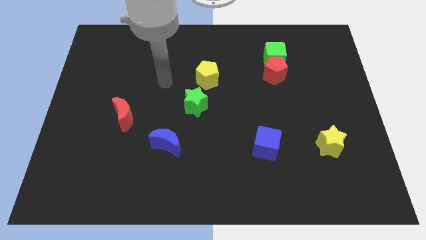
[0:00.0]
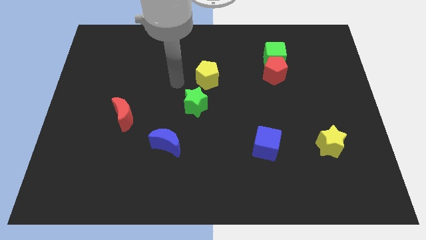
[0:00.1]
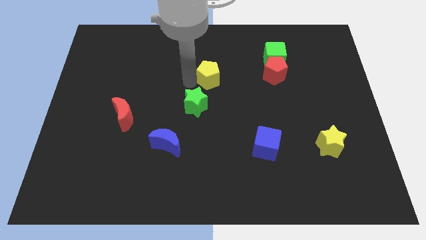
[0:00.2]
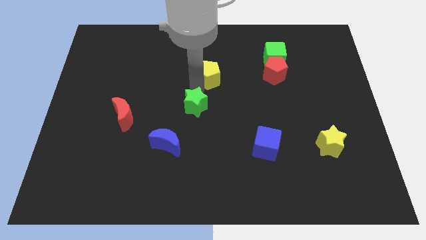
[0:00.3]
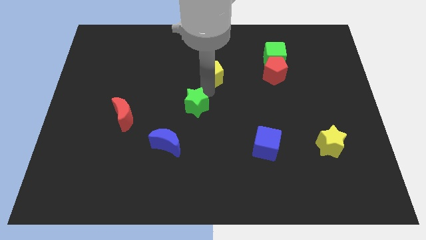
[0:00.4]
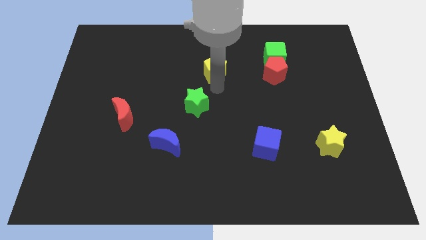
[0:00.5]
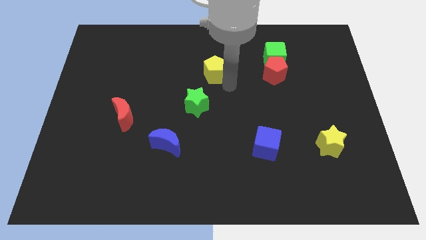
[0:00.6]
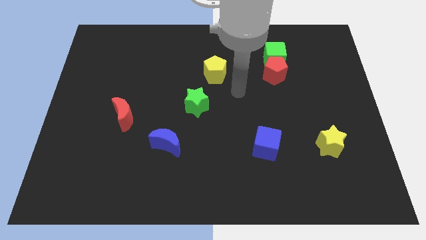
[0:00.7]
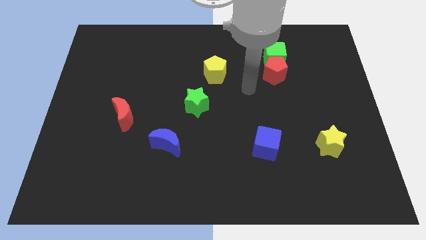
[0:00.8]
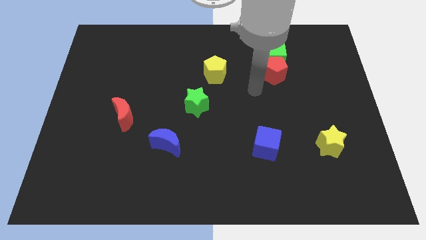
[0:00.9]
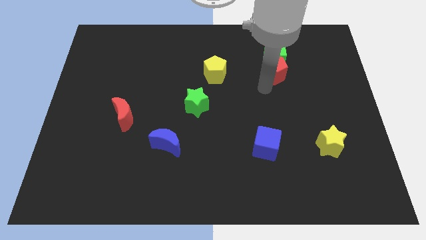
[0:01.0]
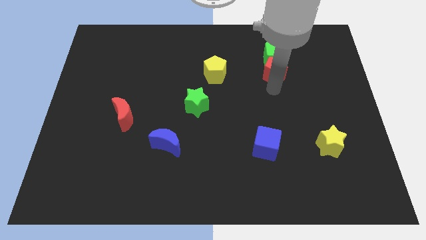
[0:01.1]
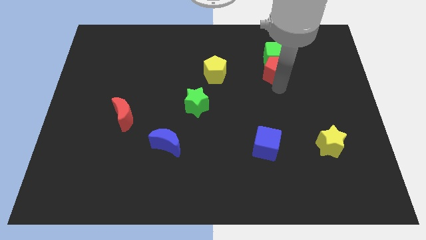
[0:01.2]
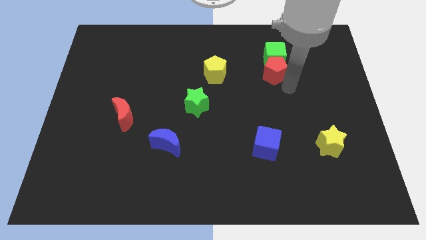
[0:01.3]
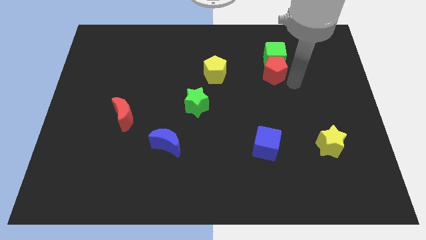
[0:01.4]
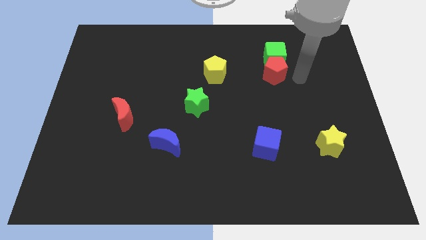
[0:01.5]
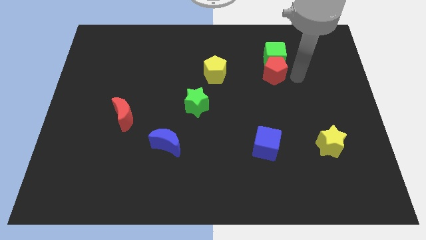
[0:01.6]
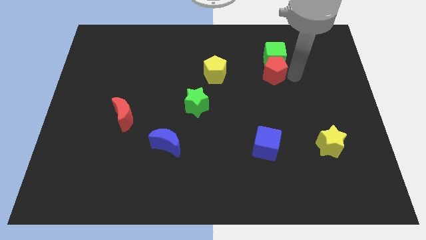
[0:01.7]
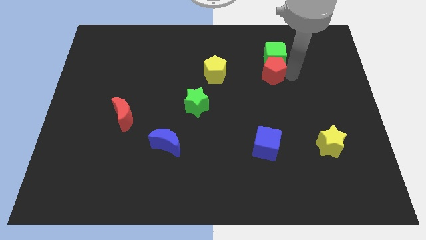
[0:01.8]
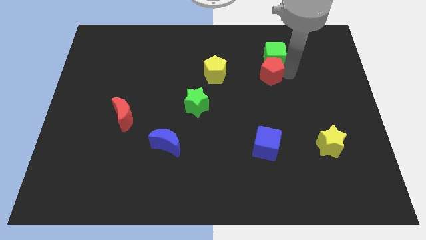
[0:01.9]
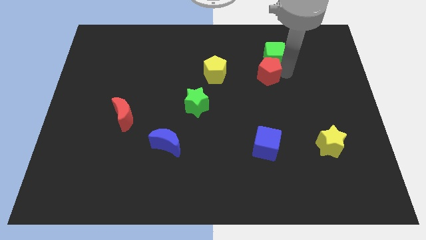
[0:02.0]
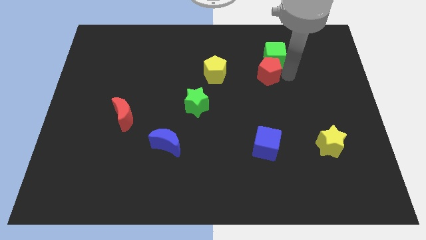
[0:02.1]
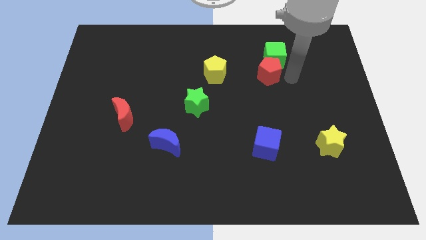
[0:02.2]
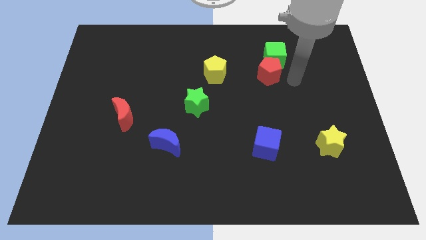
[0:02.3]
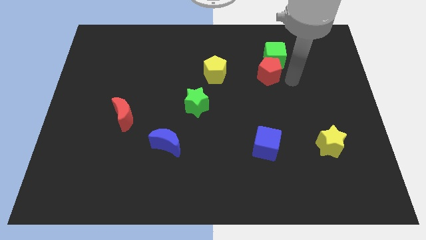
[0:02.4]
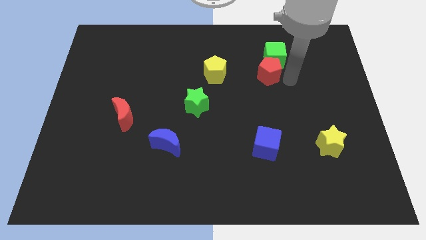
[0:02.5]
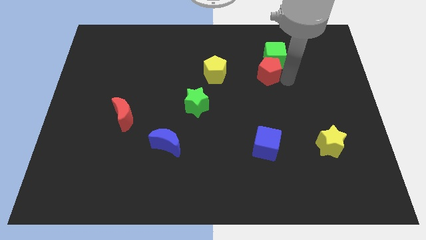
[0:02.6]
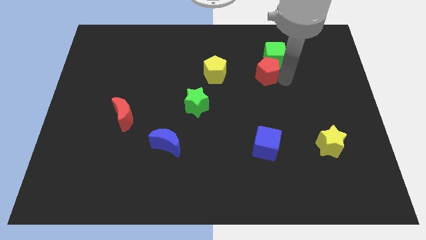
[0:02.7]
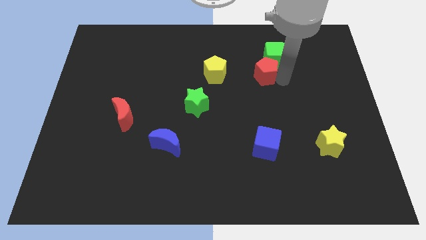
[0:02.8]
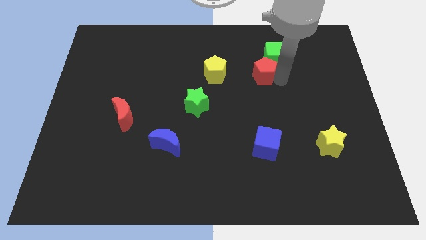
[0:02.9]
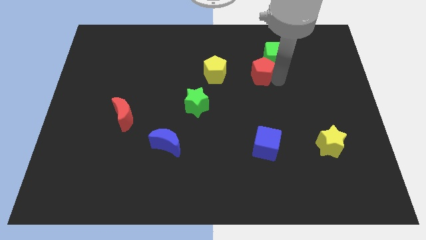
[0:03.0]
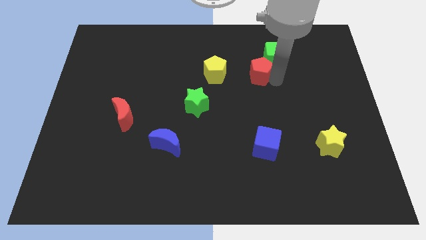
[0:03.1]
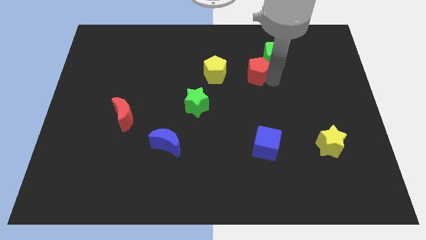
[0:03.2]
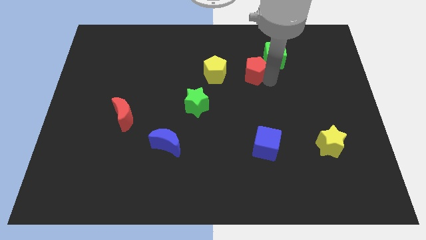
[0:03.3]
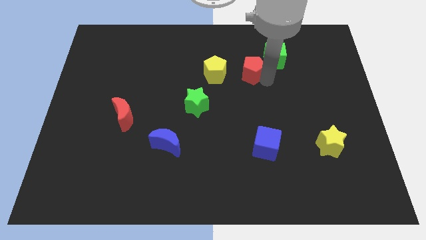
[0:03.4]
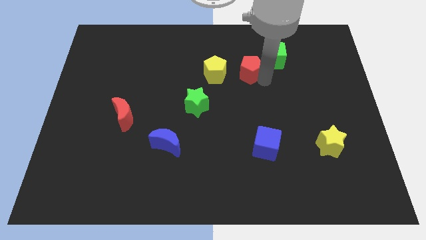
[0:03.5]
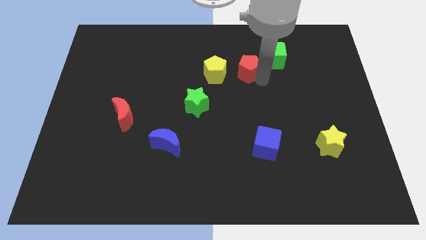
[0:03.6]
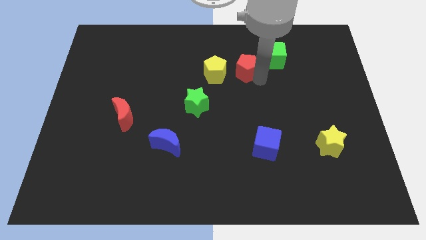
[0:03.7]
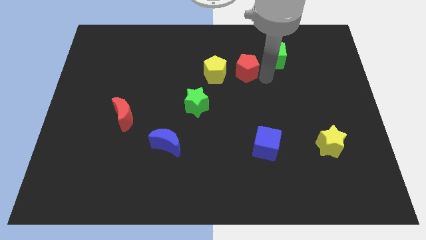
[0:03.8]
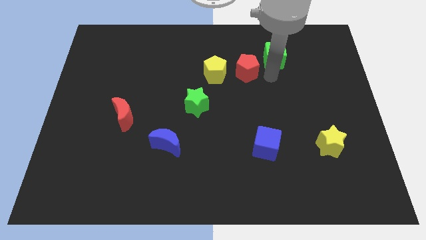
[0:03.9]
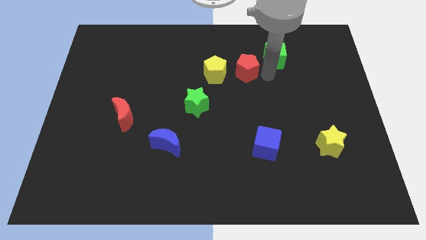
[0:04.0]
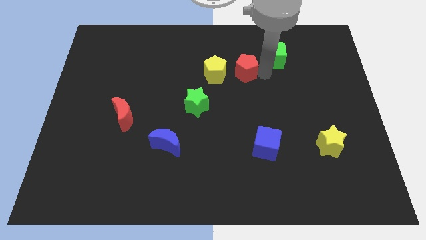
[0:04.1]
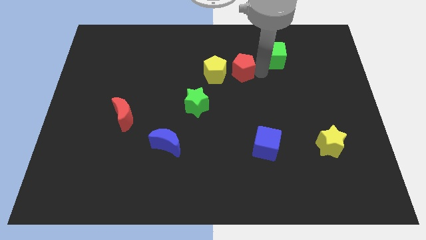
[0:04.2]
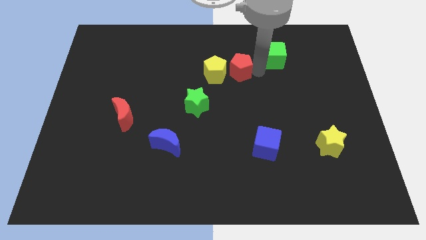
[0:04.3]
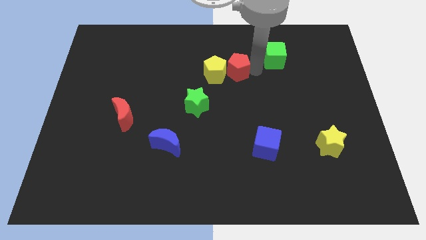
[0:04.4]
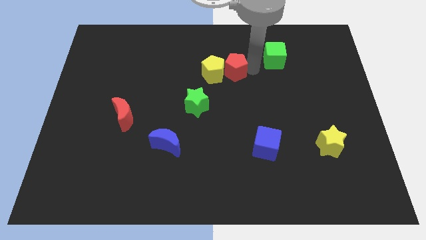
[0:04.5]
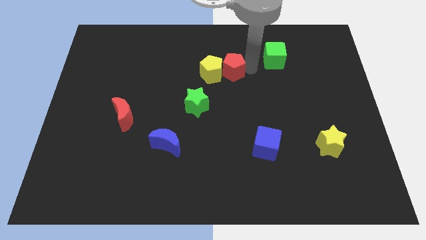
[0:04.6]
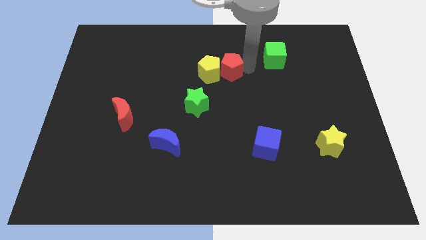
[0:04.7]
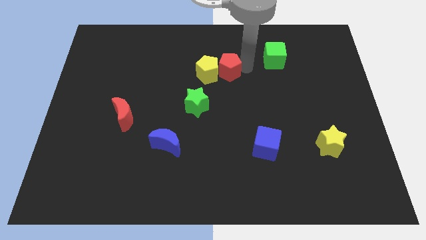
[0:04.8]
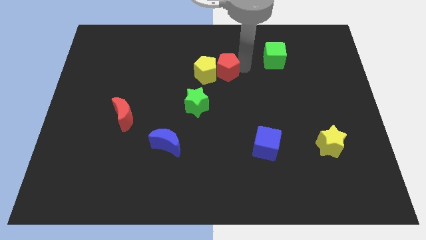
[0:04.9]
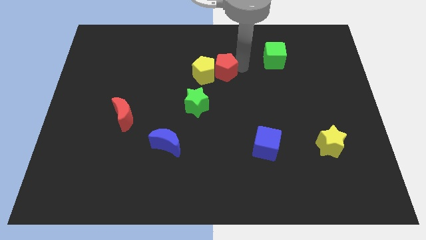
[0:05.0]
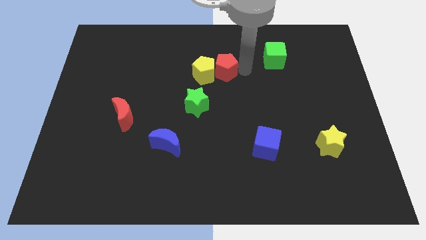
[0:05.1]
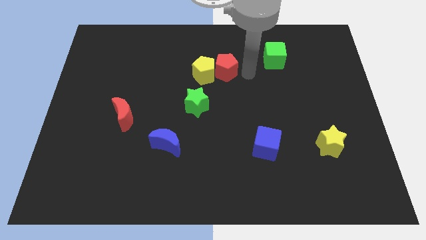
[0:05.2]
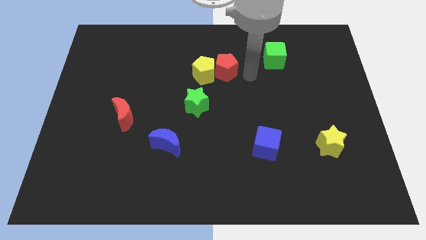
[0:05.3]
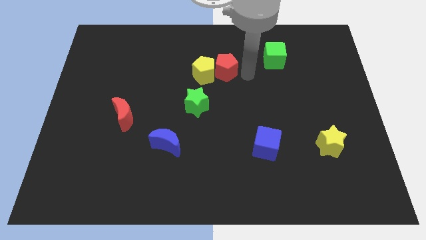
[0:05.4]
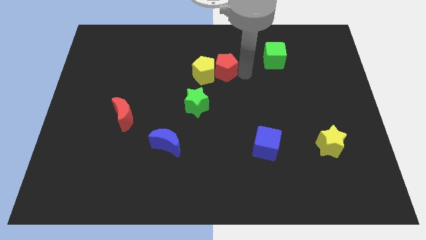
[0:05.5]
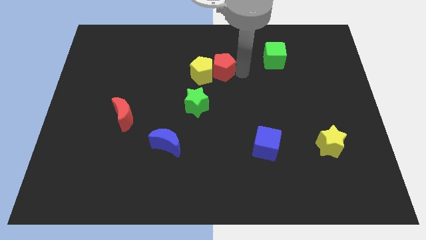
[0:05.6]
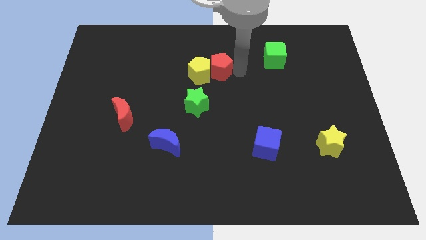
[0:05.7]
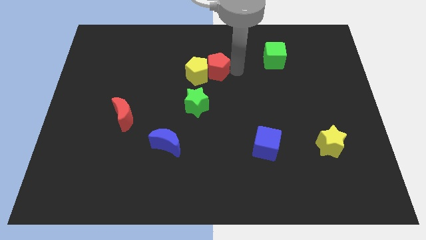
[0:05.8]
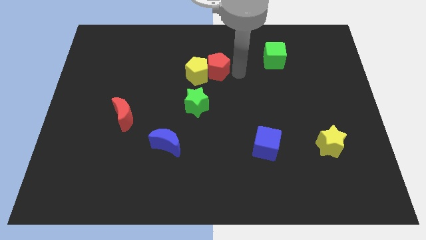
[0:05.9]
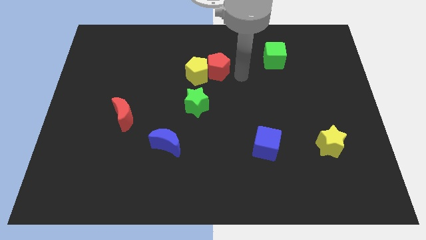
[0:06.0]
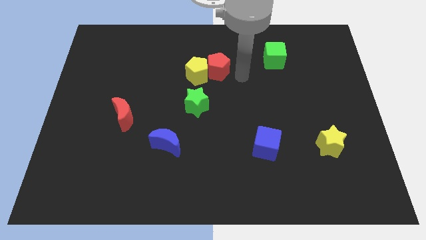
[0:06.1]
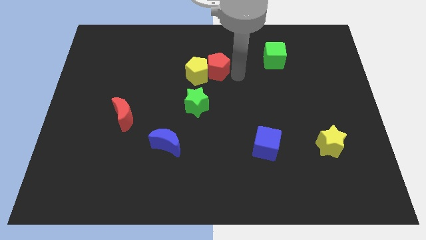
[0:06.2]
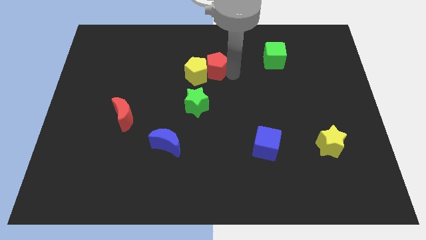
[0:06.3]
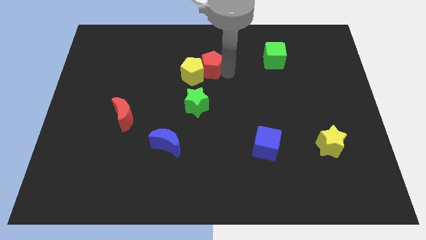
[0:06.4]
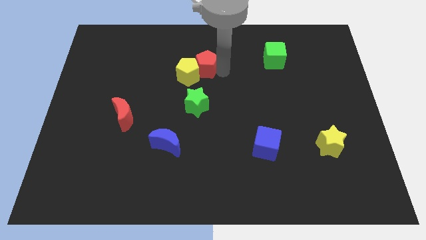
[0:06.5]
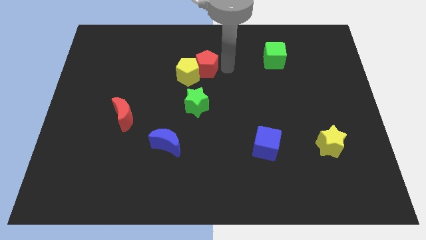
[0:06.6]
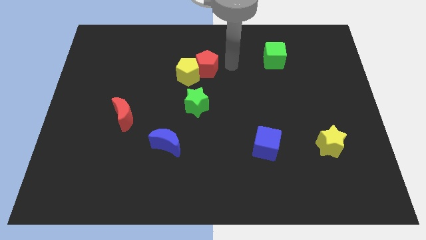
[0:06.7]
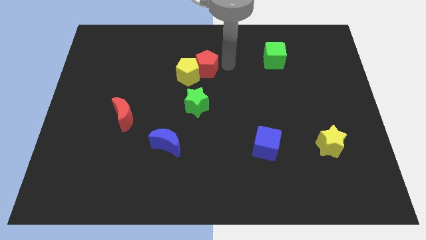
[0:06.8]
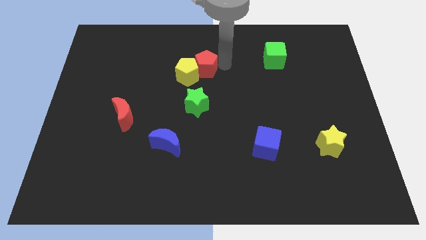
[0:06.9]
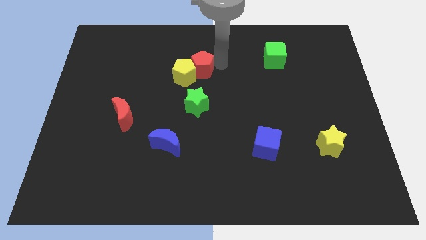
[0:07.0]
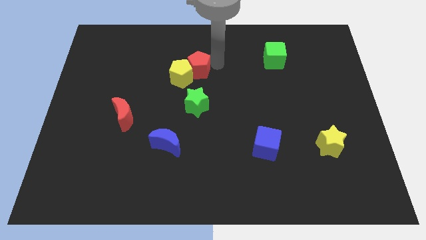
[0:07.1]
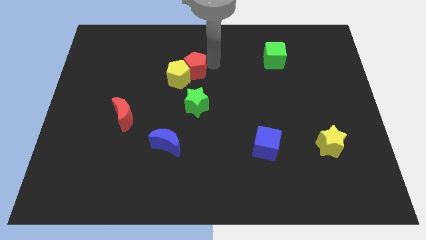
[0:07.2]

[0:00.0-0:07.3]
push the red pentagon to the left

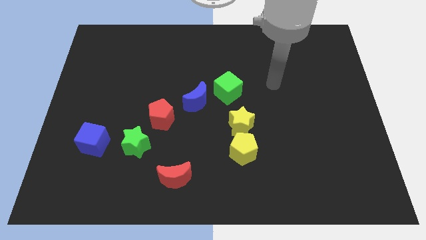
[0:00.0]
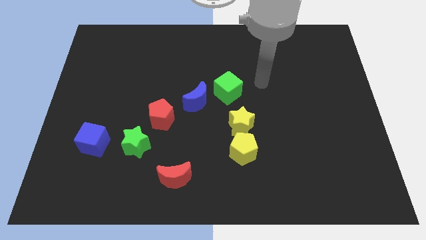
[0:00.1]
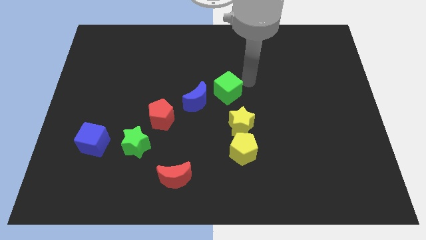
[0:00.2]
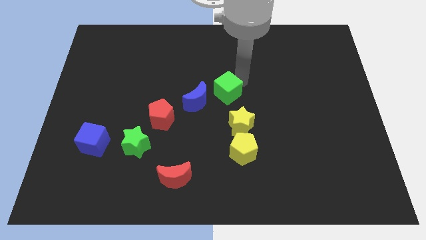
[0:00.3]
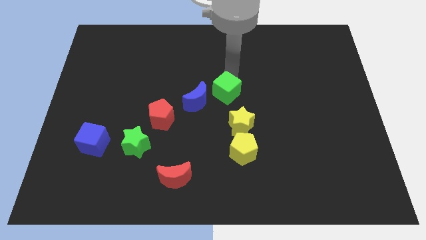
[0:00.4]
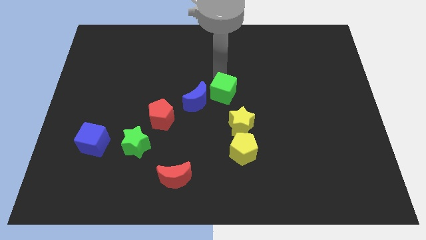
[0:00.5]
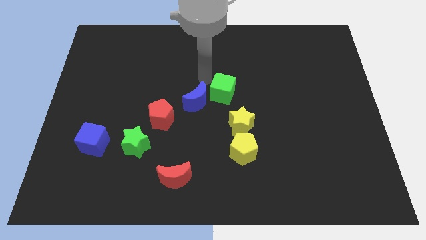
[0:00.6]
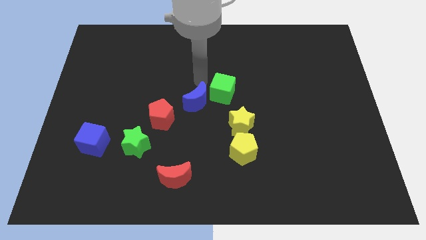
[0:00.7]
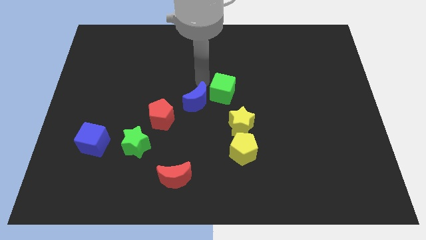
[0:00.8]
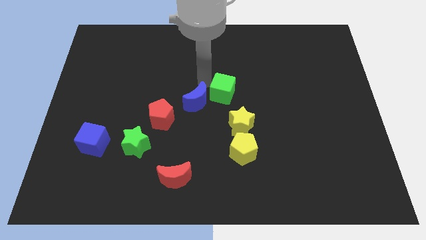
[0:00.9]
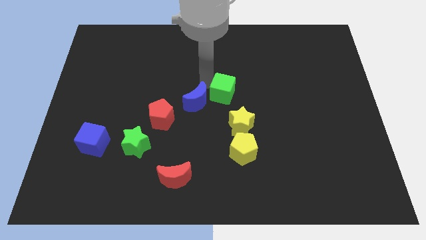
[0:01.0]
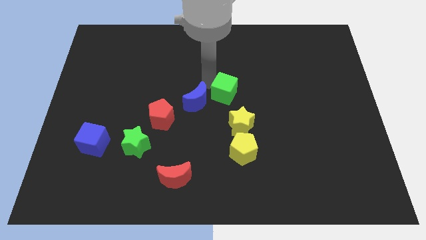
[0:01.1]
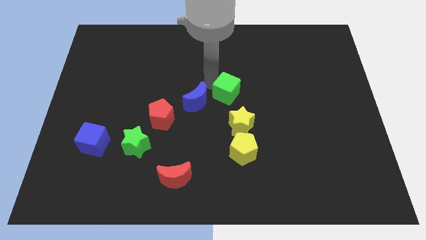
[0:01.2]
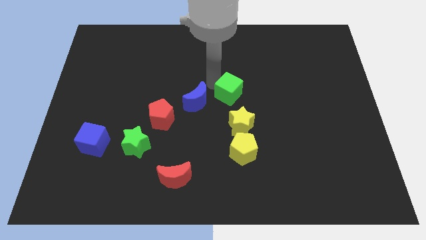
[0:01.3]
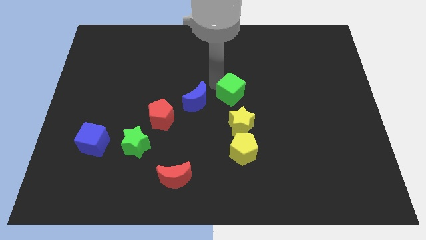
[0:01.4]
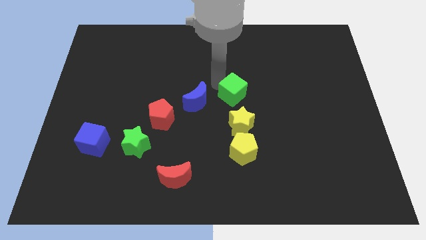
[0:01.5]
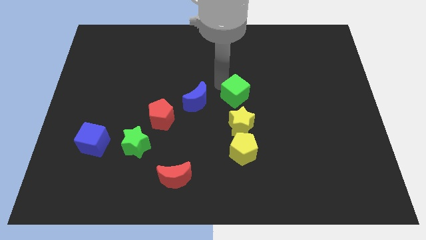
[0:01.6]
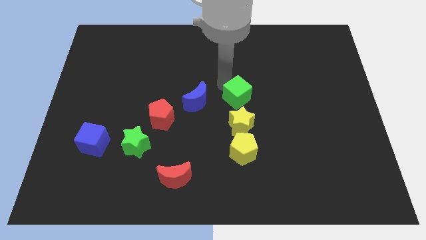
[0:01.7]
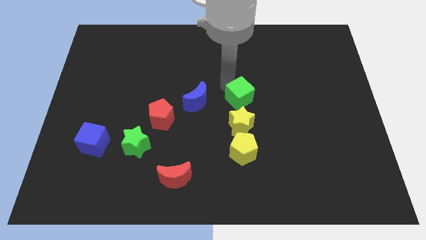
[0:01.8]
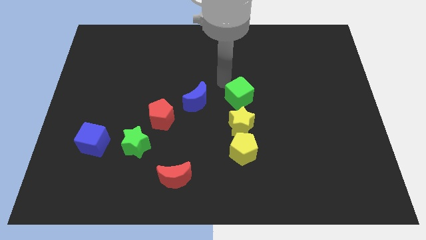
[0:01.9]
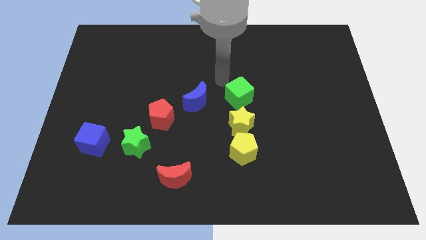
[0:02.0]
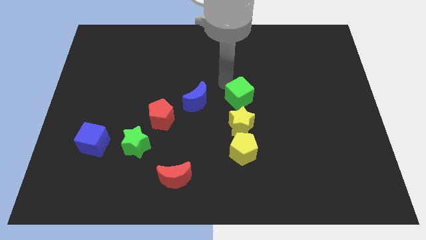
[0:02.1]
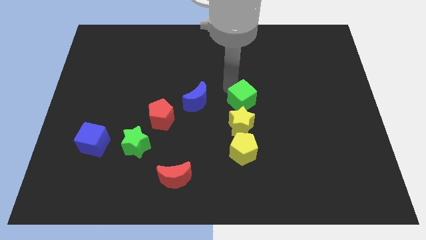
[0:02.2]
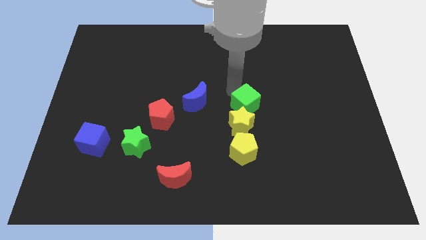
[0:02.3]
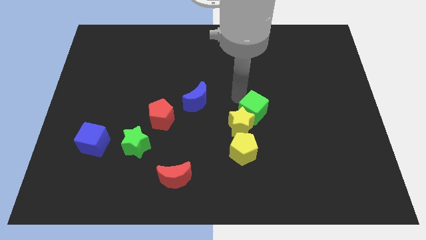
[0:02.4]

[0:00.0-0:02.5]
slightly push the green cube diagonally down and right
